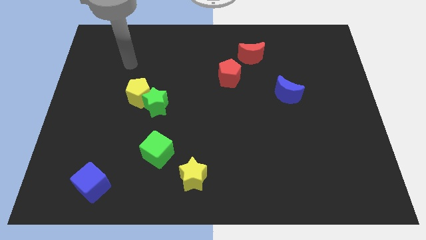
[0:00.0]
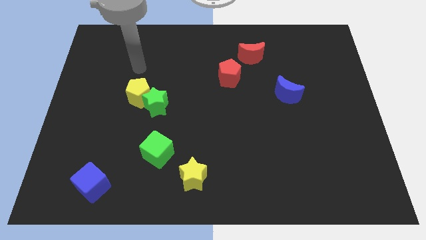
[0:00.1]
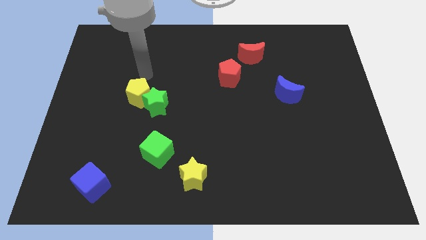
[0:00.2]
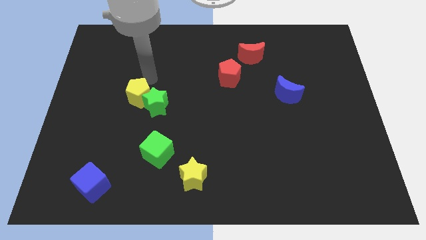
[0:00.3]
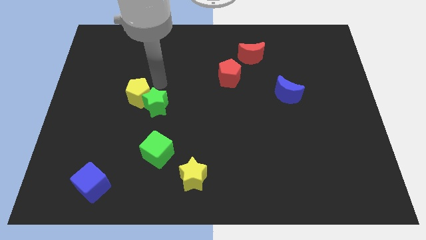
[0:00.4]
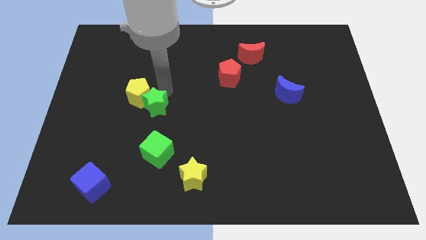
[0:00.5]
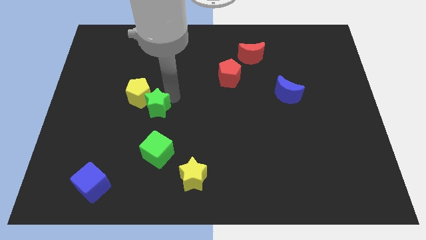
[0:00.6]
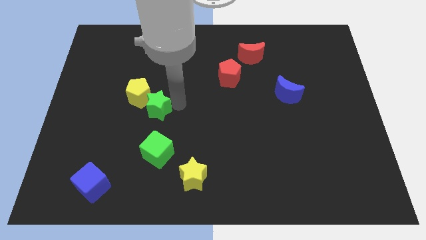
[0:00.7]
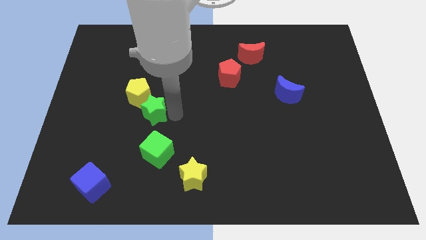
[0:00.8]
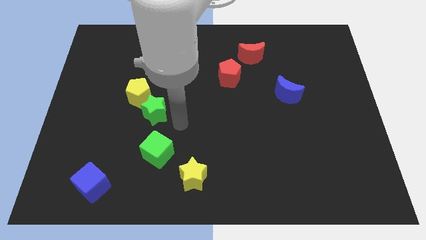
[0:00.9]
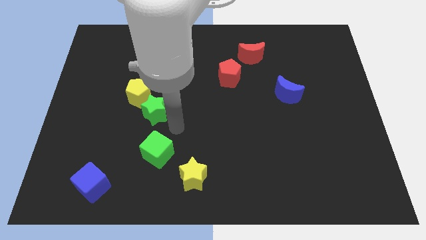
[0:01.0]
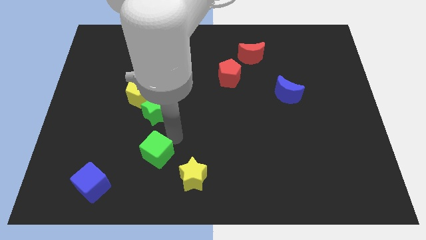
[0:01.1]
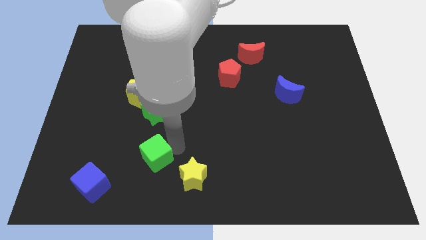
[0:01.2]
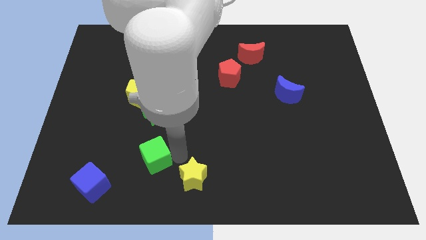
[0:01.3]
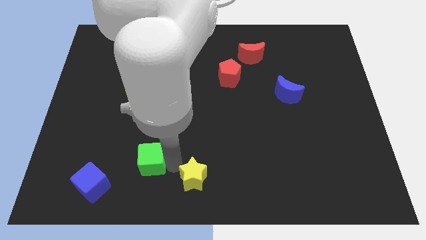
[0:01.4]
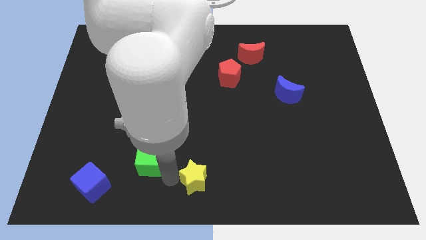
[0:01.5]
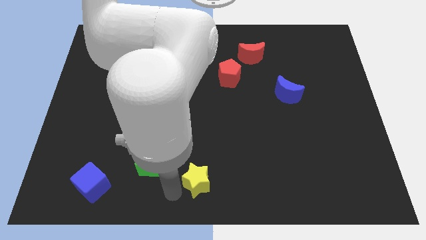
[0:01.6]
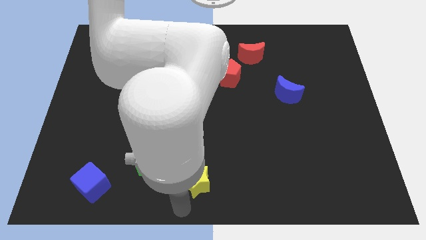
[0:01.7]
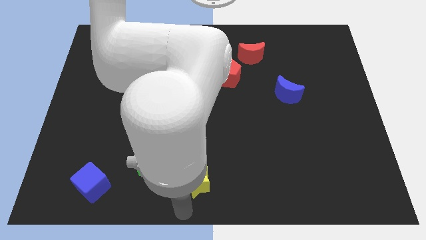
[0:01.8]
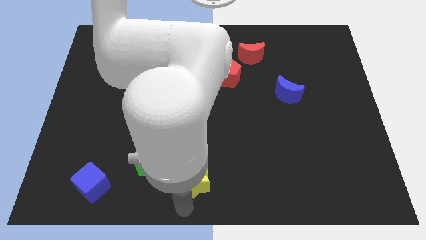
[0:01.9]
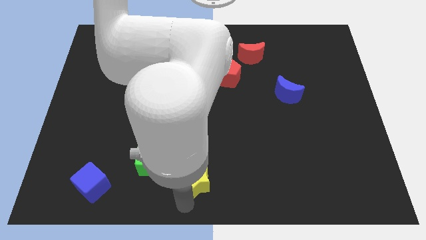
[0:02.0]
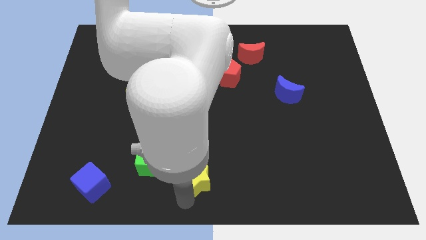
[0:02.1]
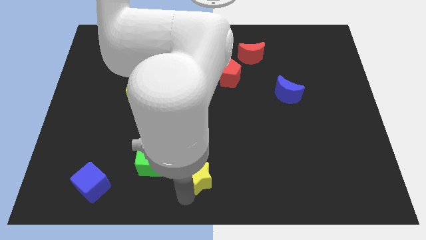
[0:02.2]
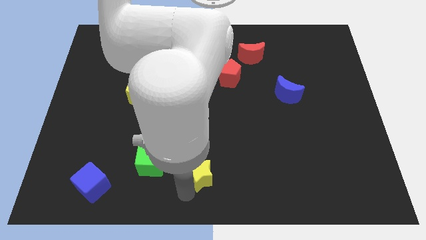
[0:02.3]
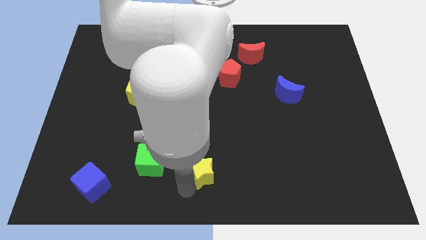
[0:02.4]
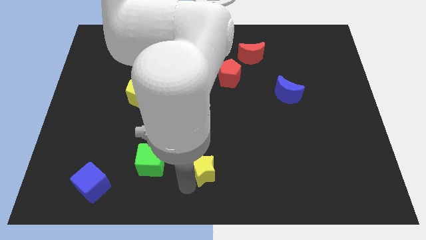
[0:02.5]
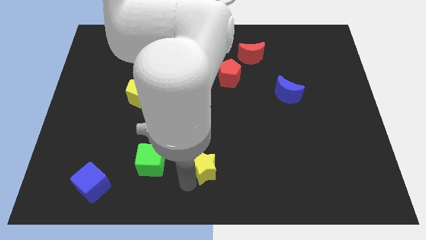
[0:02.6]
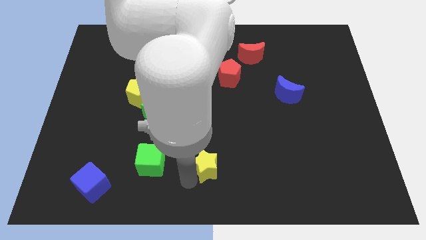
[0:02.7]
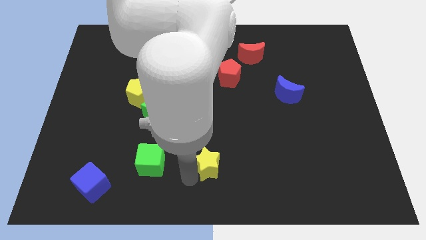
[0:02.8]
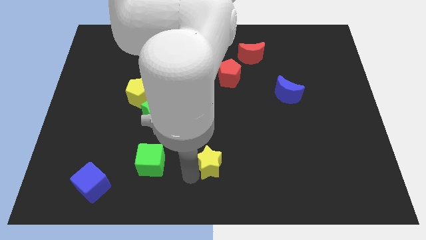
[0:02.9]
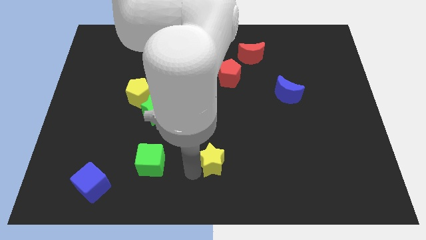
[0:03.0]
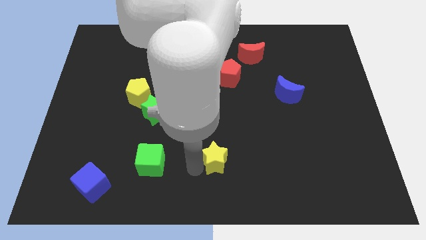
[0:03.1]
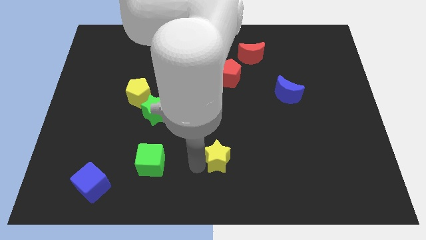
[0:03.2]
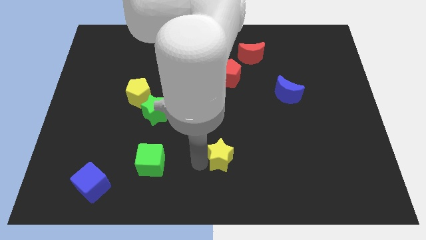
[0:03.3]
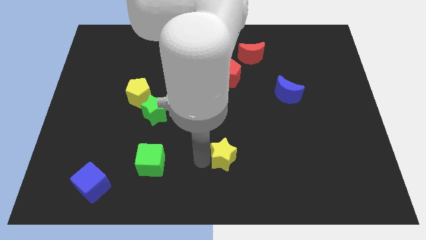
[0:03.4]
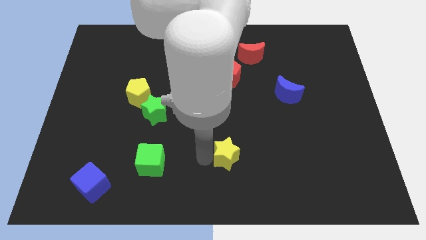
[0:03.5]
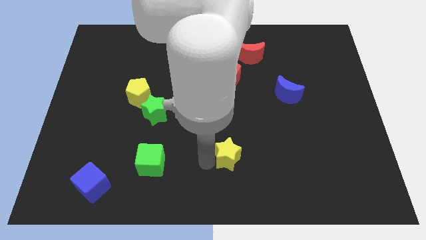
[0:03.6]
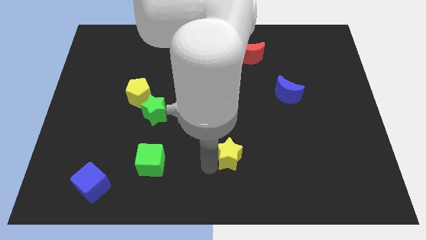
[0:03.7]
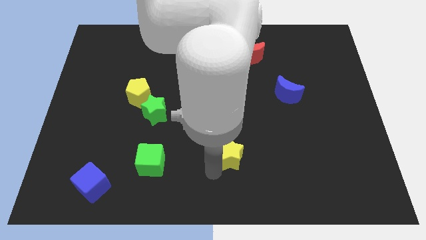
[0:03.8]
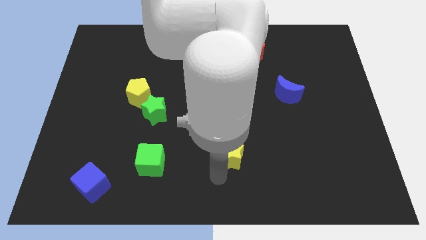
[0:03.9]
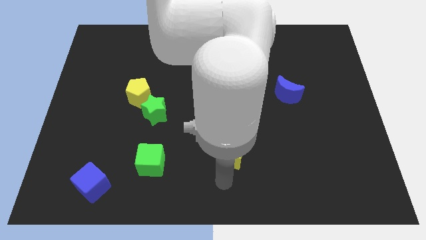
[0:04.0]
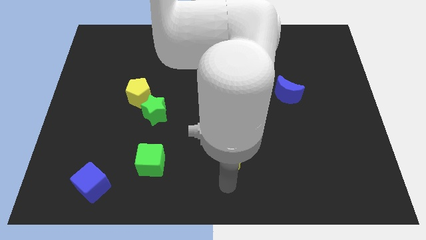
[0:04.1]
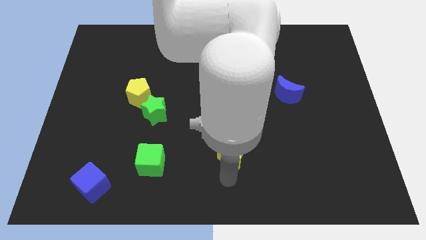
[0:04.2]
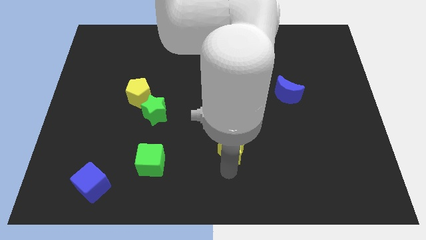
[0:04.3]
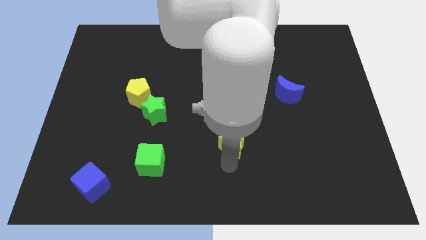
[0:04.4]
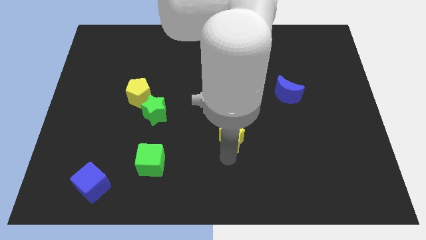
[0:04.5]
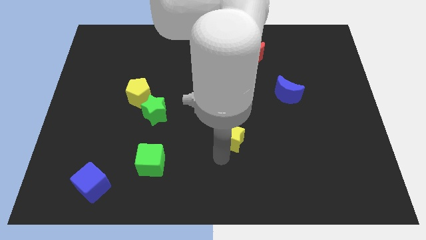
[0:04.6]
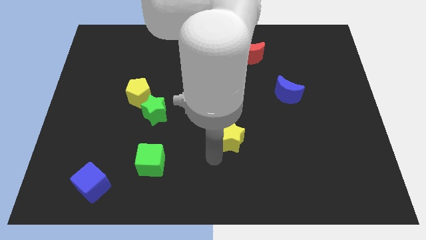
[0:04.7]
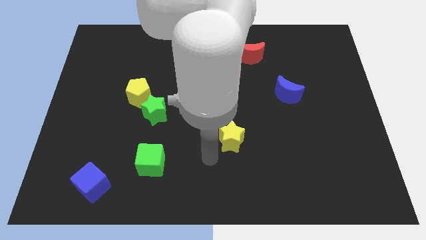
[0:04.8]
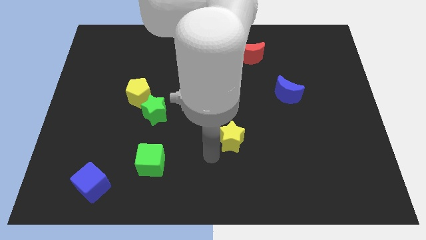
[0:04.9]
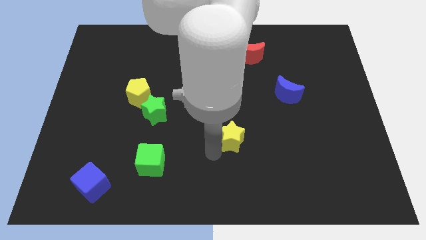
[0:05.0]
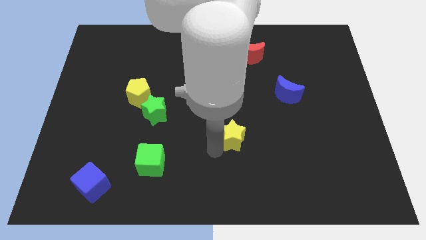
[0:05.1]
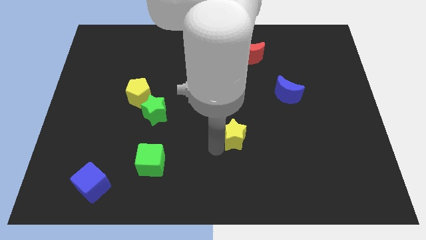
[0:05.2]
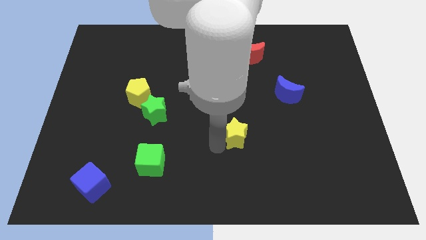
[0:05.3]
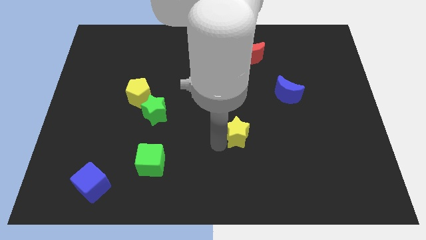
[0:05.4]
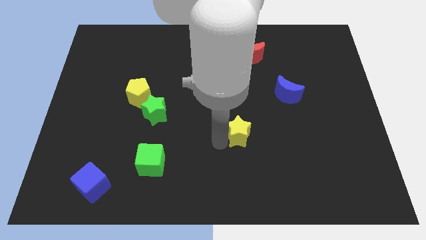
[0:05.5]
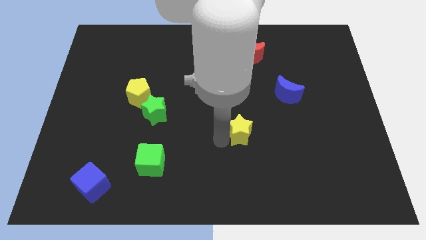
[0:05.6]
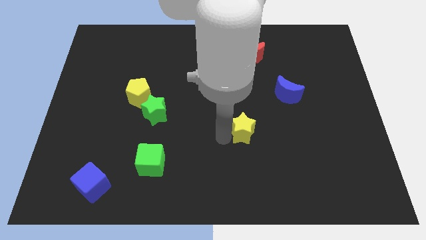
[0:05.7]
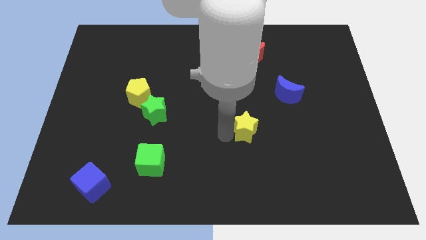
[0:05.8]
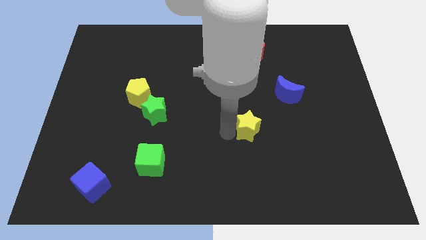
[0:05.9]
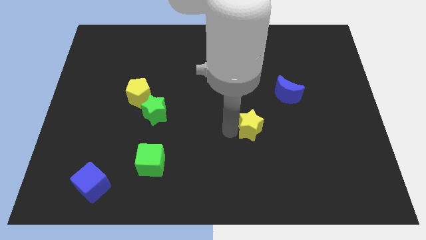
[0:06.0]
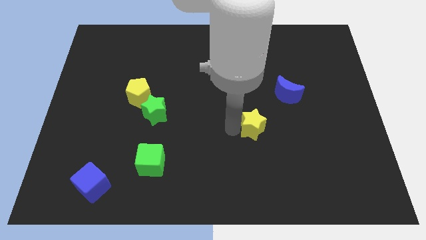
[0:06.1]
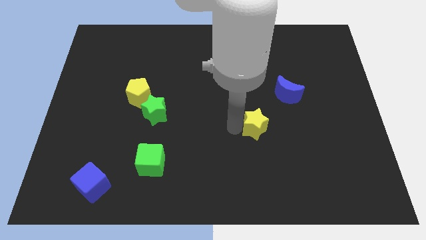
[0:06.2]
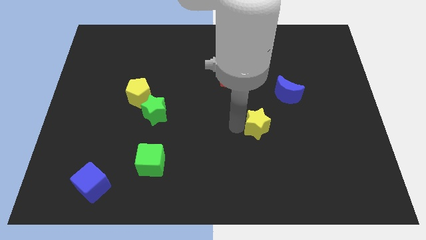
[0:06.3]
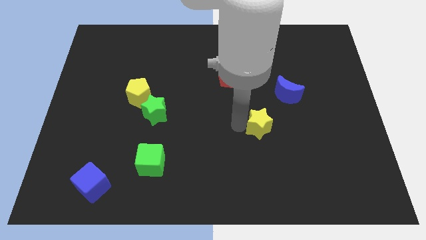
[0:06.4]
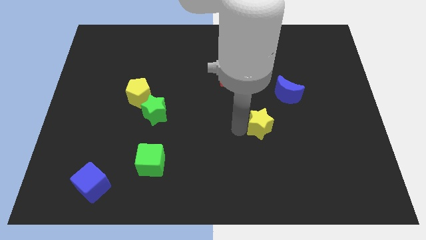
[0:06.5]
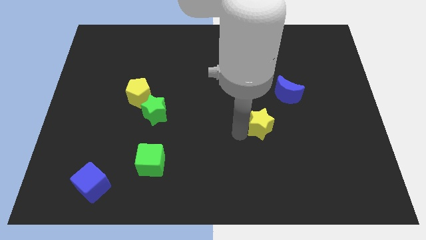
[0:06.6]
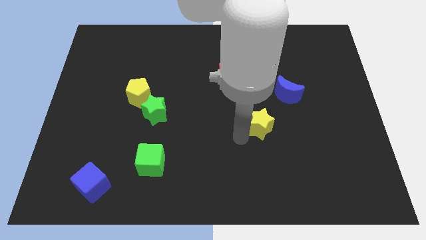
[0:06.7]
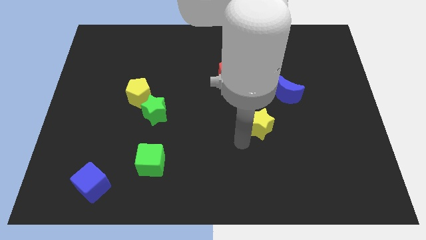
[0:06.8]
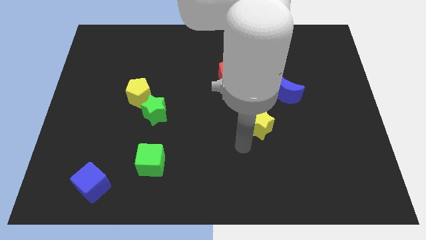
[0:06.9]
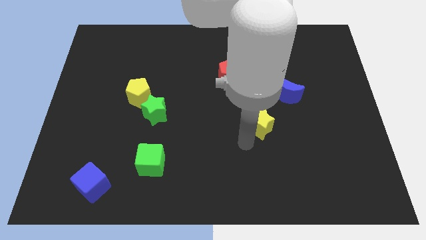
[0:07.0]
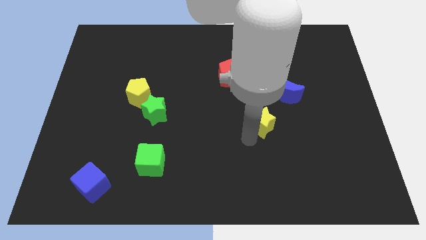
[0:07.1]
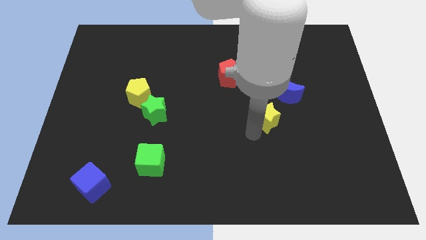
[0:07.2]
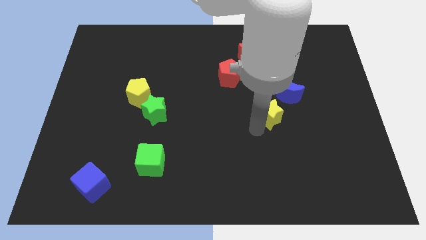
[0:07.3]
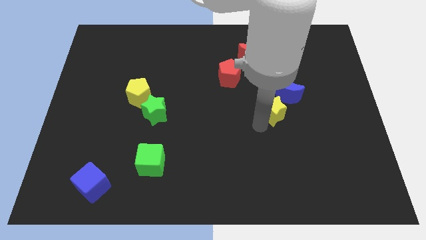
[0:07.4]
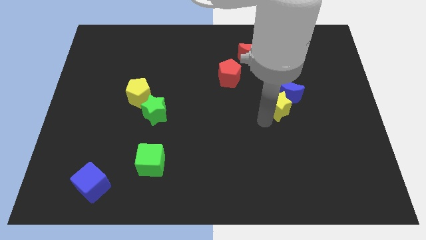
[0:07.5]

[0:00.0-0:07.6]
push the yellow star to the blue moon

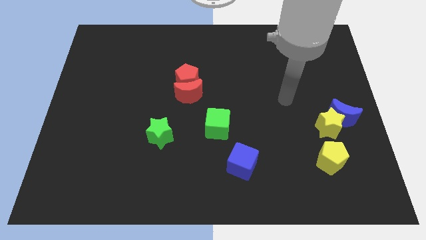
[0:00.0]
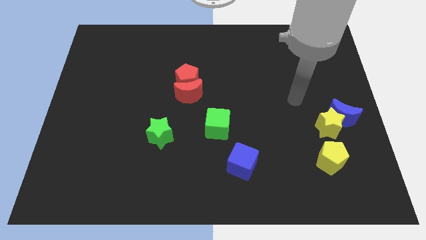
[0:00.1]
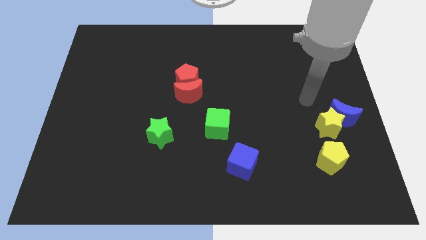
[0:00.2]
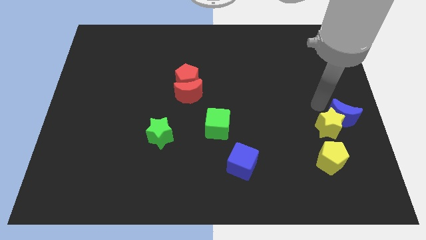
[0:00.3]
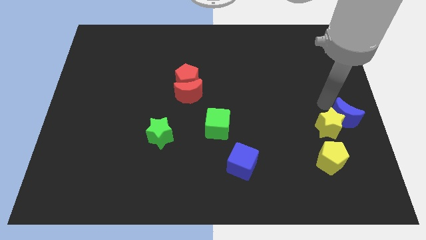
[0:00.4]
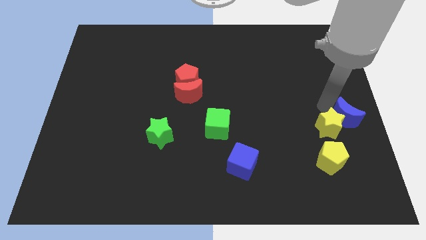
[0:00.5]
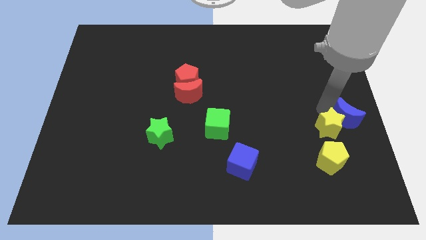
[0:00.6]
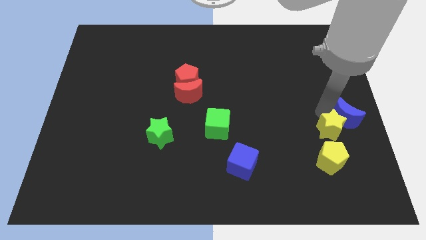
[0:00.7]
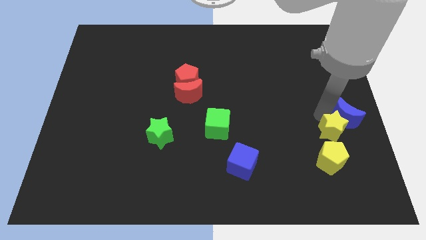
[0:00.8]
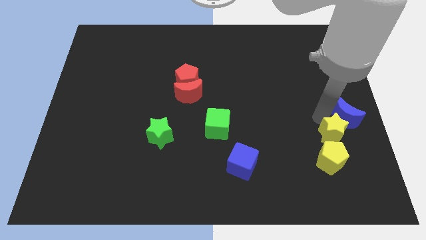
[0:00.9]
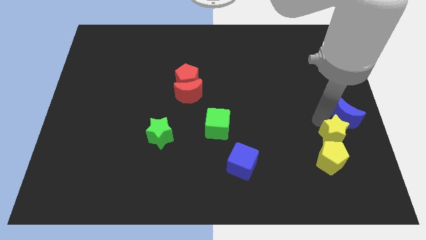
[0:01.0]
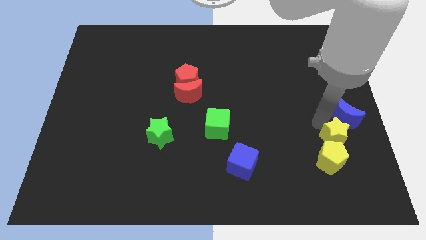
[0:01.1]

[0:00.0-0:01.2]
slide the yellow star close to the yellow pentagon
